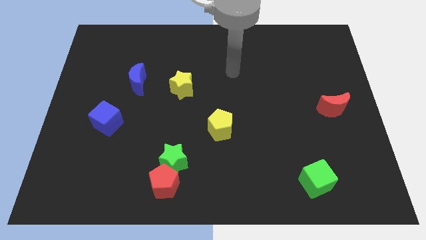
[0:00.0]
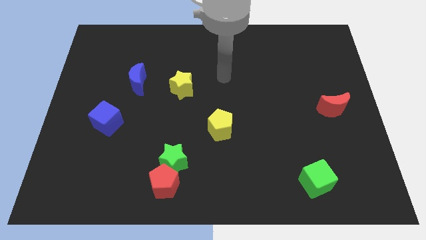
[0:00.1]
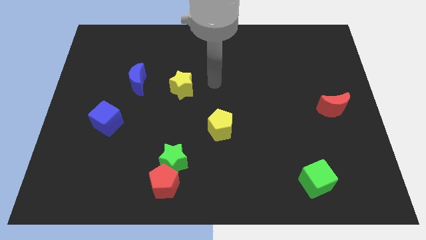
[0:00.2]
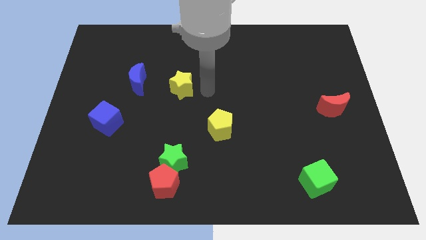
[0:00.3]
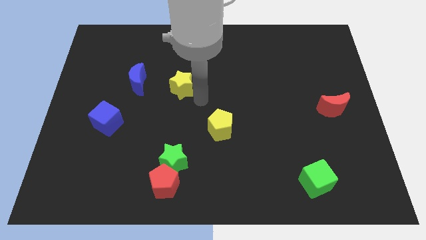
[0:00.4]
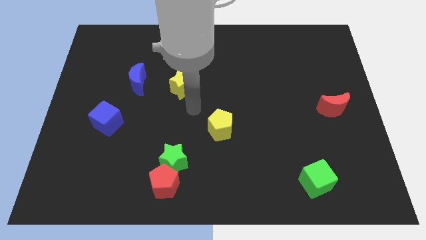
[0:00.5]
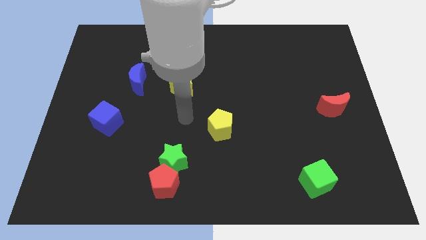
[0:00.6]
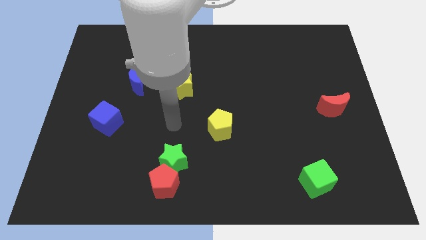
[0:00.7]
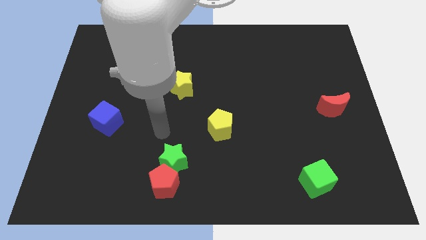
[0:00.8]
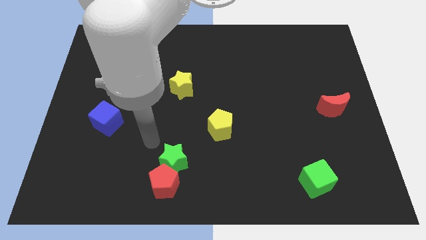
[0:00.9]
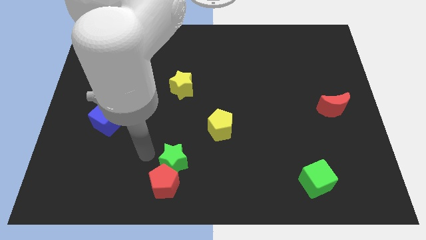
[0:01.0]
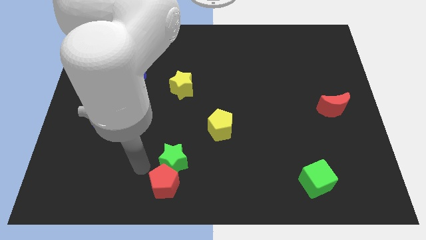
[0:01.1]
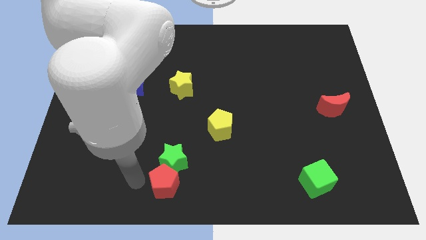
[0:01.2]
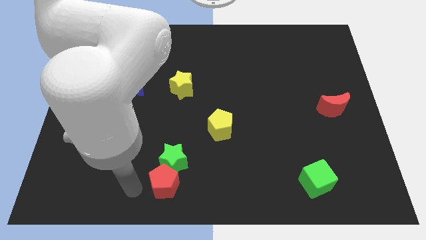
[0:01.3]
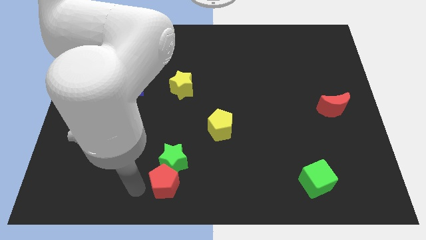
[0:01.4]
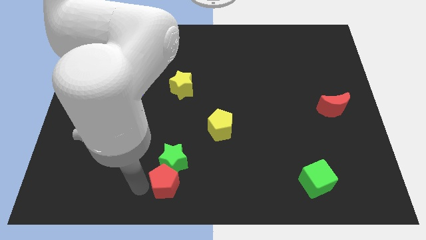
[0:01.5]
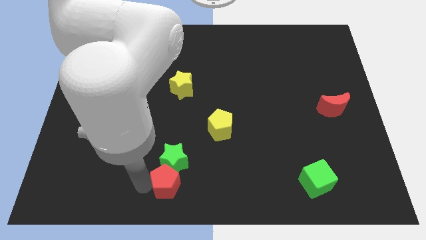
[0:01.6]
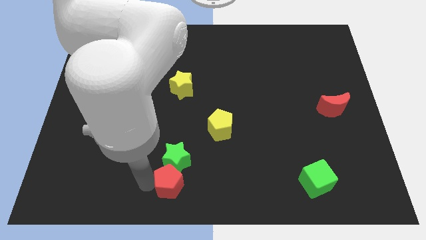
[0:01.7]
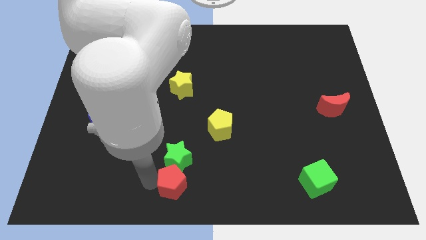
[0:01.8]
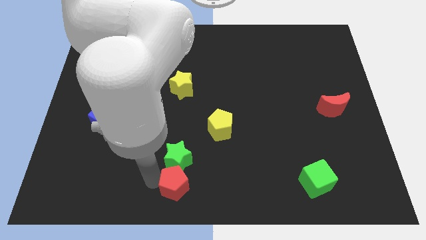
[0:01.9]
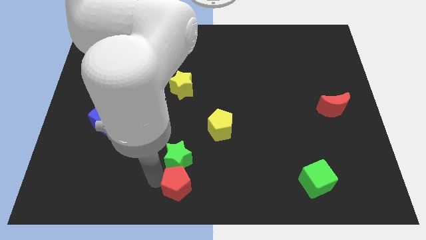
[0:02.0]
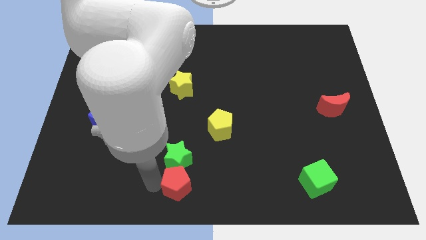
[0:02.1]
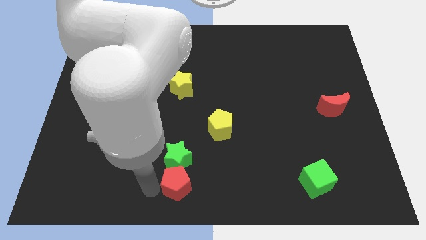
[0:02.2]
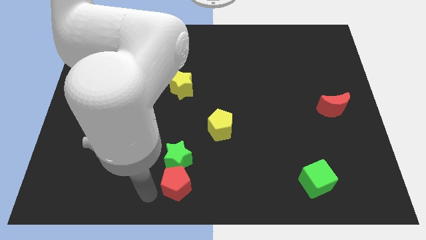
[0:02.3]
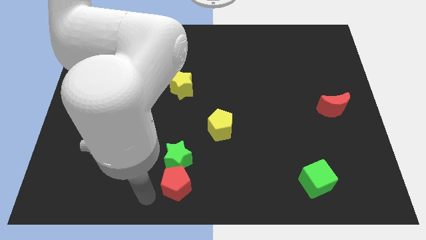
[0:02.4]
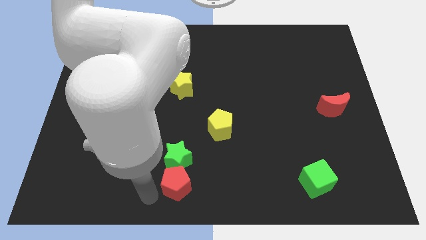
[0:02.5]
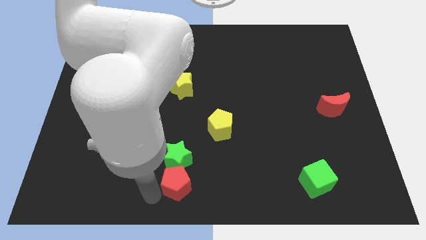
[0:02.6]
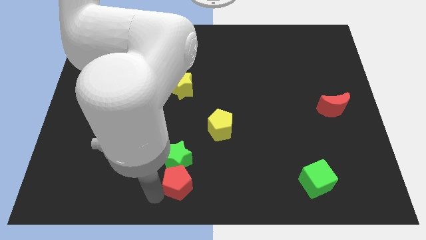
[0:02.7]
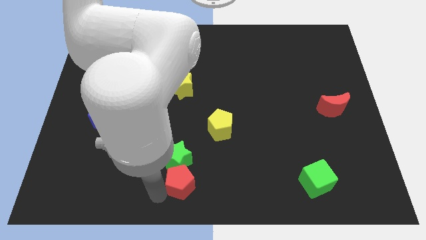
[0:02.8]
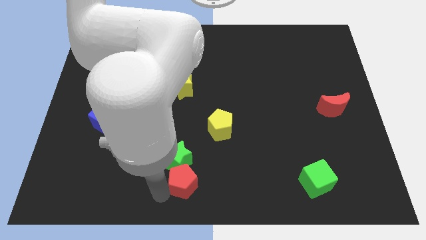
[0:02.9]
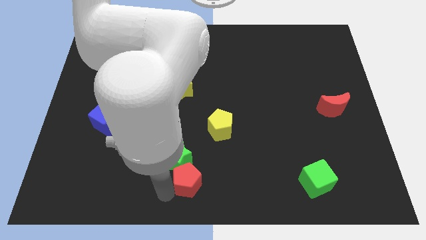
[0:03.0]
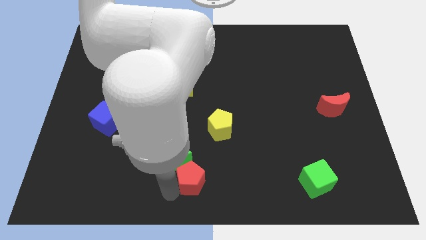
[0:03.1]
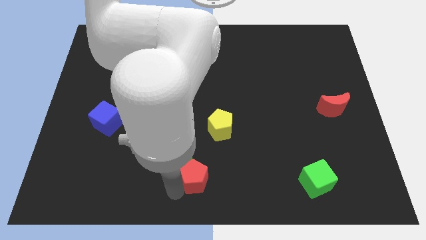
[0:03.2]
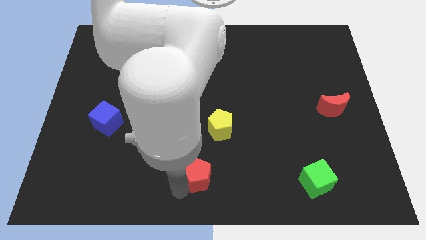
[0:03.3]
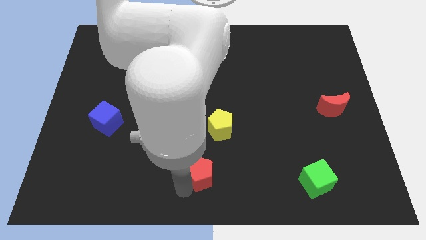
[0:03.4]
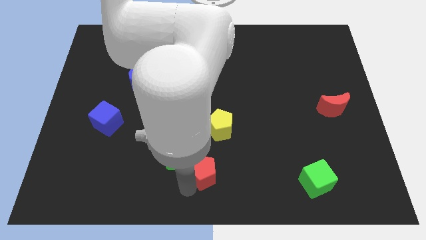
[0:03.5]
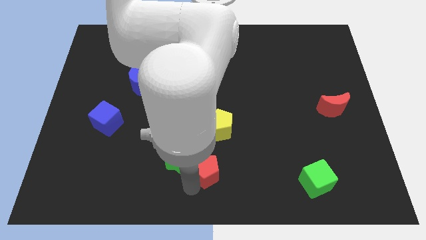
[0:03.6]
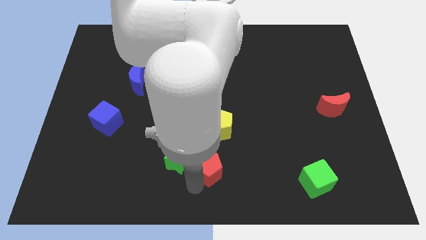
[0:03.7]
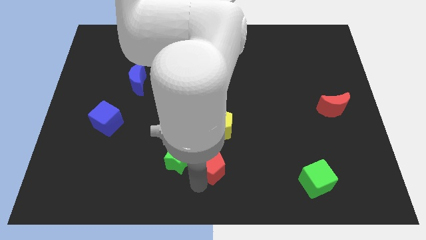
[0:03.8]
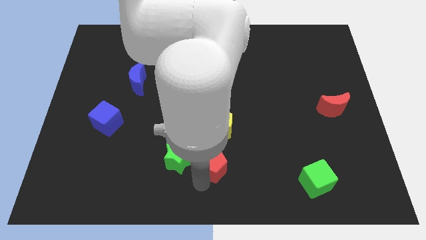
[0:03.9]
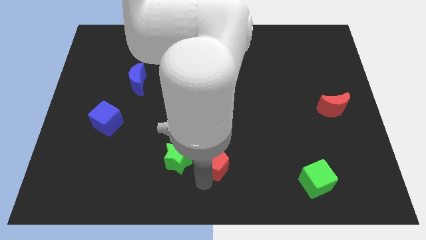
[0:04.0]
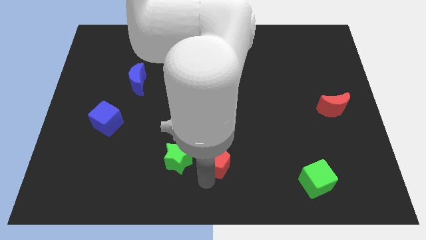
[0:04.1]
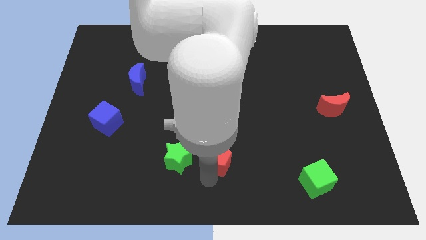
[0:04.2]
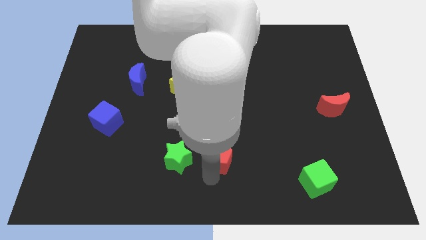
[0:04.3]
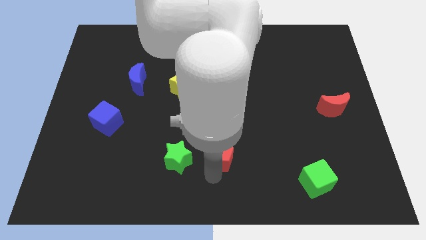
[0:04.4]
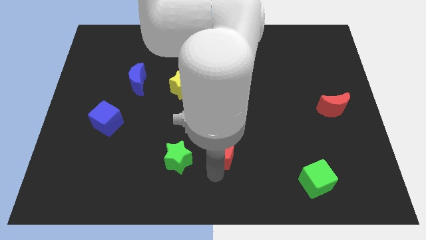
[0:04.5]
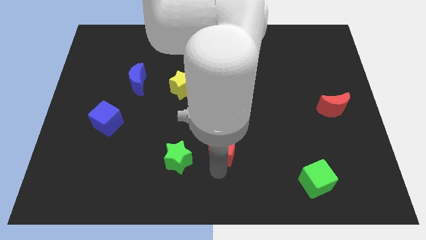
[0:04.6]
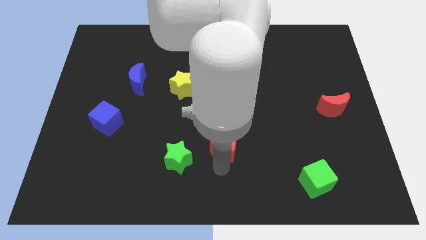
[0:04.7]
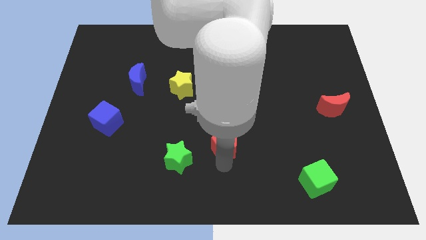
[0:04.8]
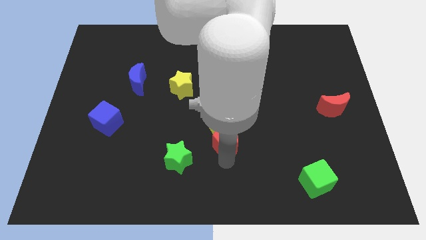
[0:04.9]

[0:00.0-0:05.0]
put the red pentagon to the middle of the board

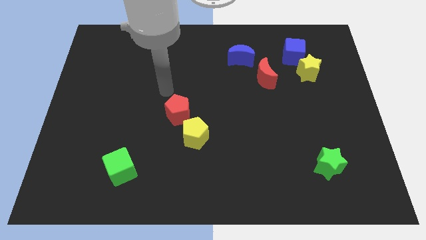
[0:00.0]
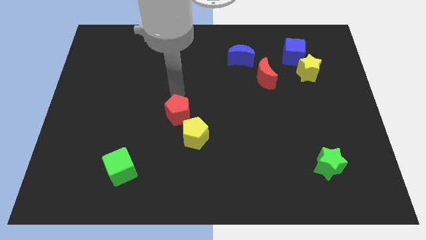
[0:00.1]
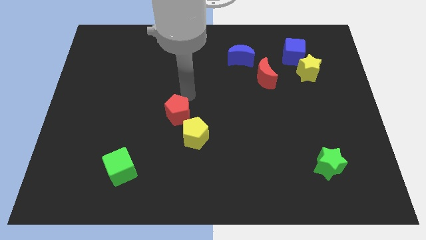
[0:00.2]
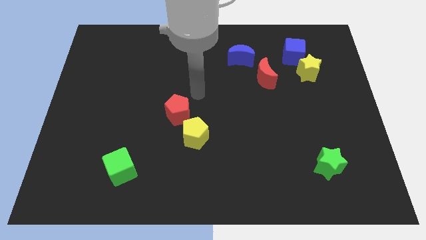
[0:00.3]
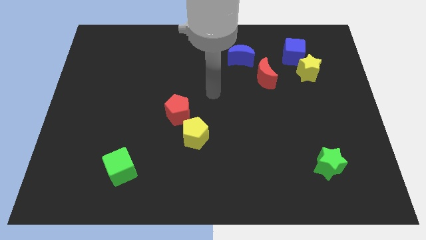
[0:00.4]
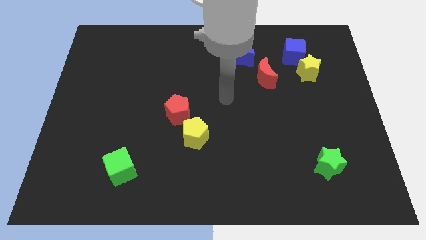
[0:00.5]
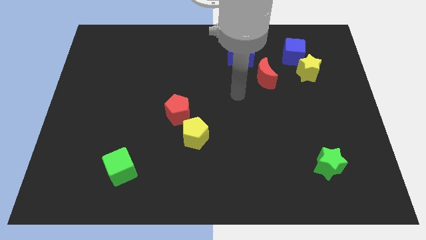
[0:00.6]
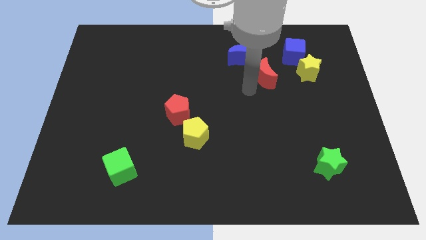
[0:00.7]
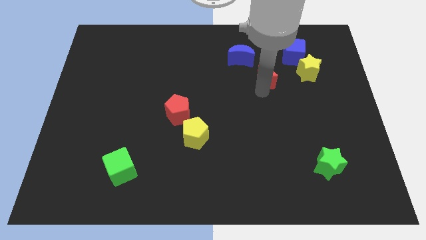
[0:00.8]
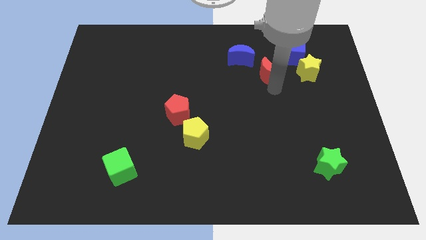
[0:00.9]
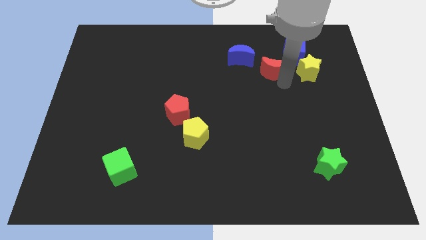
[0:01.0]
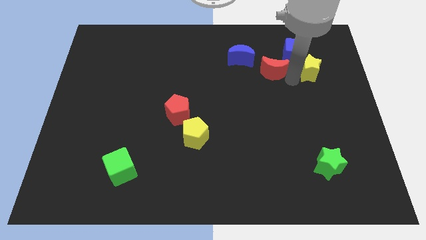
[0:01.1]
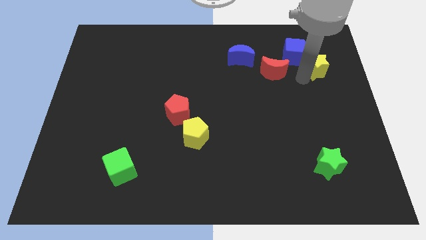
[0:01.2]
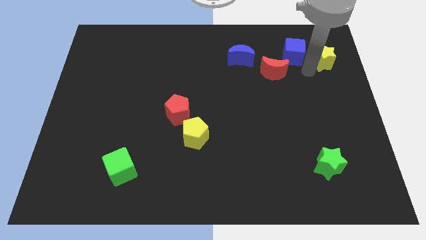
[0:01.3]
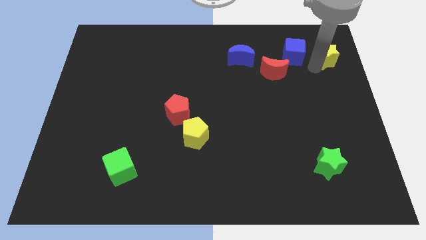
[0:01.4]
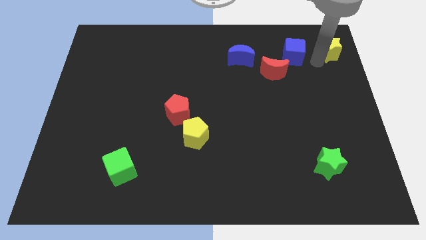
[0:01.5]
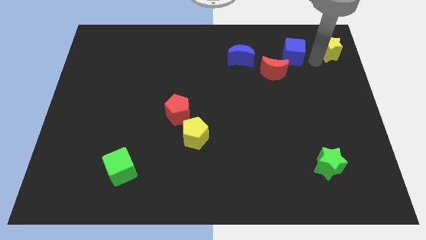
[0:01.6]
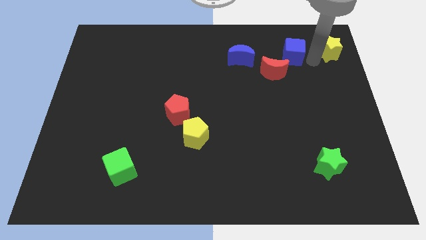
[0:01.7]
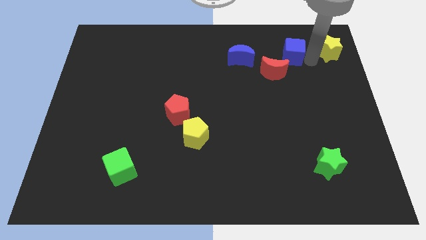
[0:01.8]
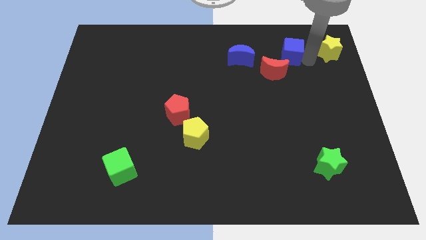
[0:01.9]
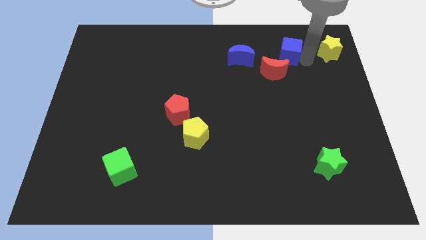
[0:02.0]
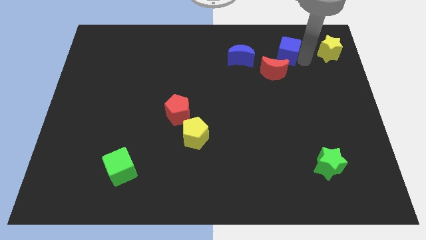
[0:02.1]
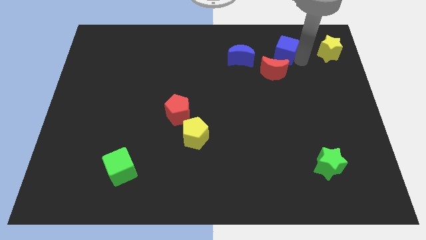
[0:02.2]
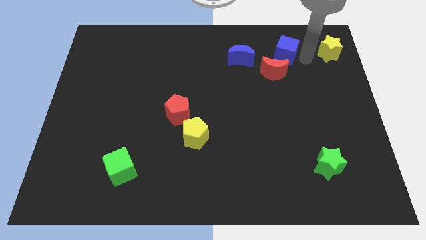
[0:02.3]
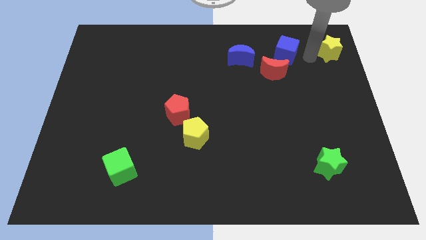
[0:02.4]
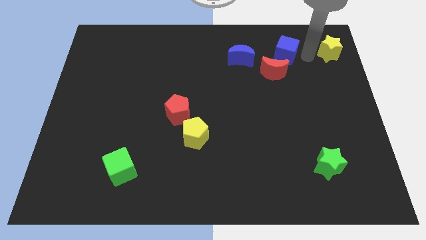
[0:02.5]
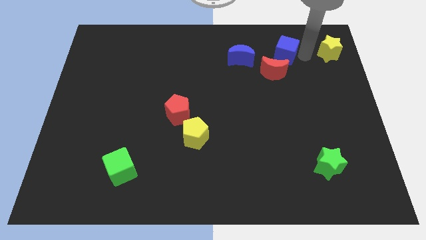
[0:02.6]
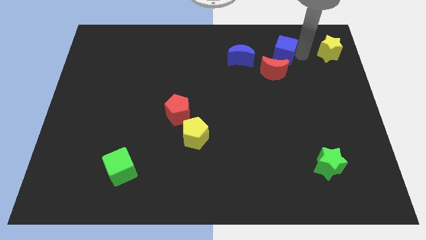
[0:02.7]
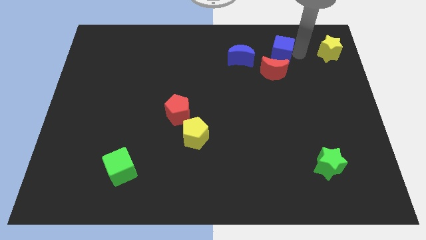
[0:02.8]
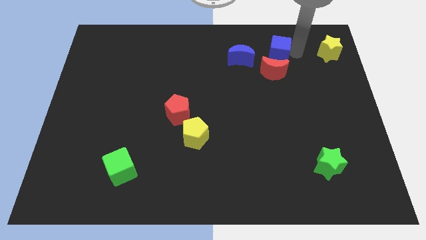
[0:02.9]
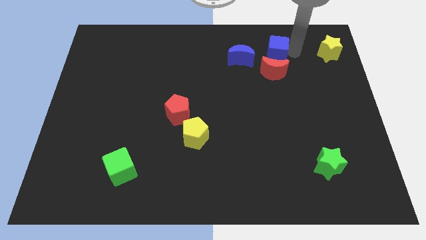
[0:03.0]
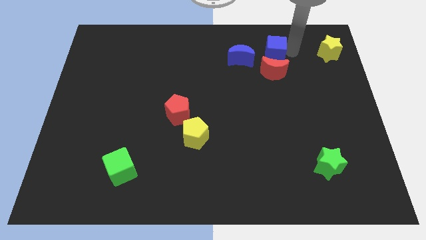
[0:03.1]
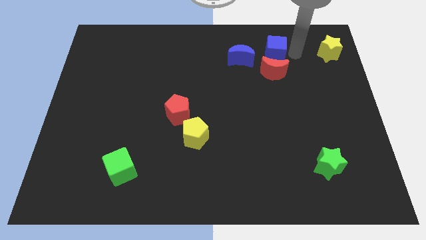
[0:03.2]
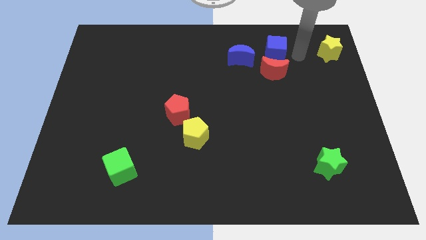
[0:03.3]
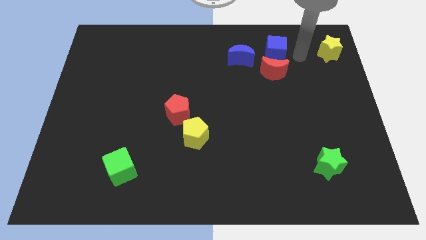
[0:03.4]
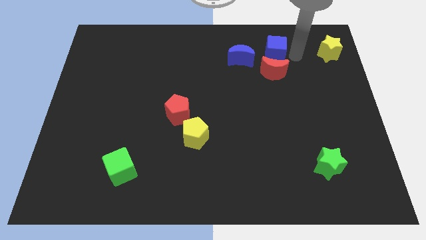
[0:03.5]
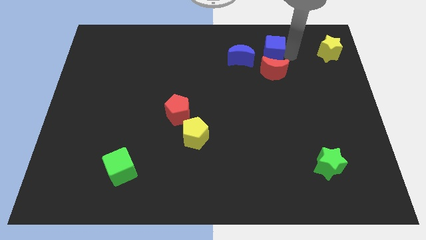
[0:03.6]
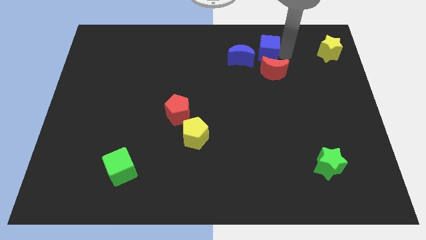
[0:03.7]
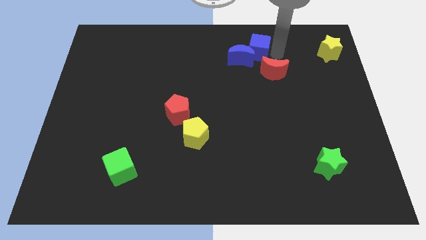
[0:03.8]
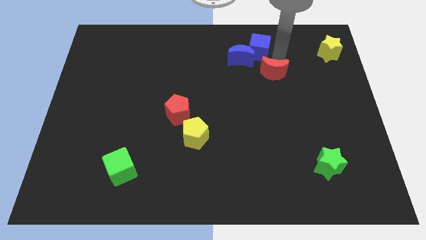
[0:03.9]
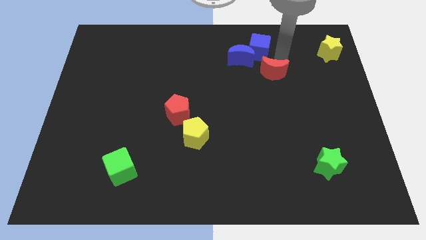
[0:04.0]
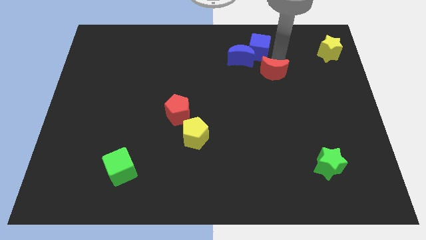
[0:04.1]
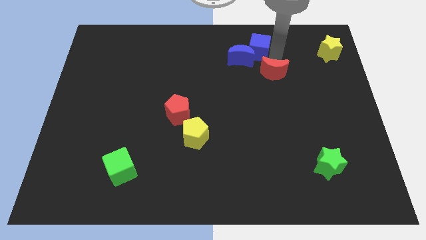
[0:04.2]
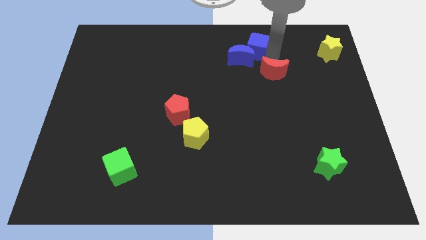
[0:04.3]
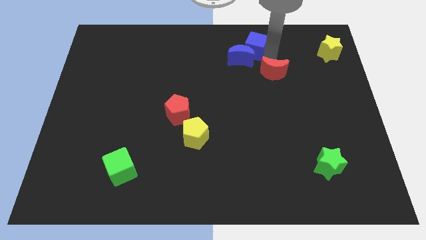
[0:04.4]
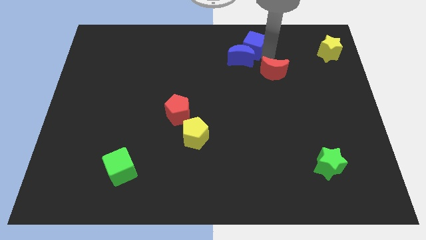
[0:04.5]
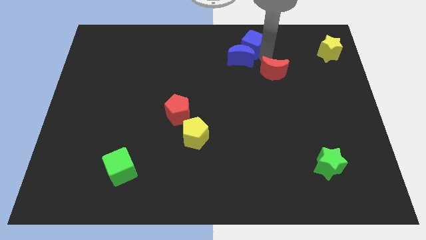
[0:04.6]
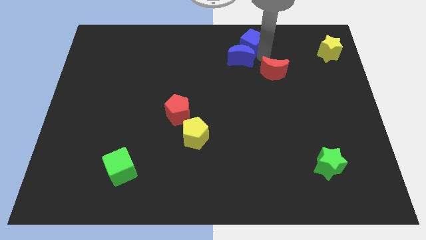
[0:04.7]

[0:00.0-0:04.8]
move the blue cube to the top
